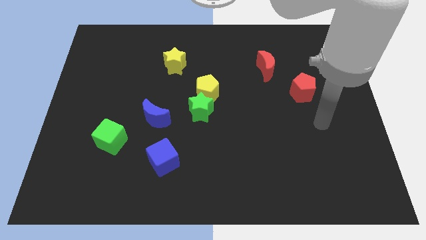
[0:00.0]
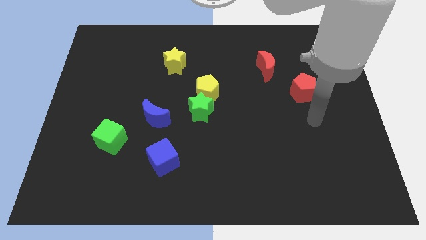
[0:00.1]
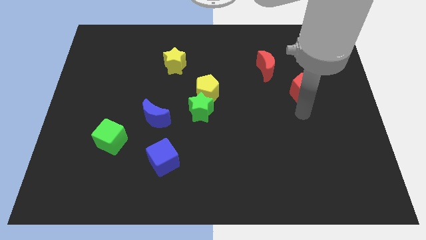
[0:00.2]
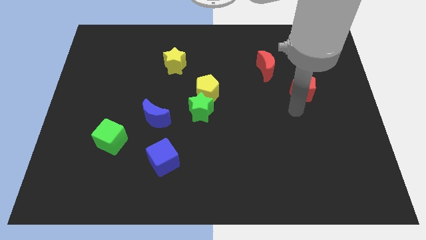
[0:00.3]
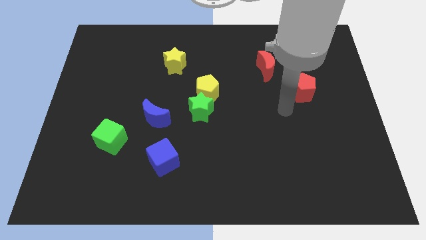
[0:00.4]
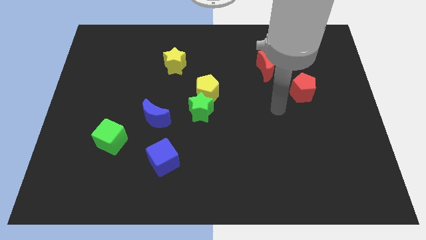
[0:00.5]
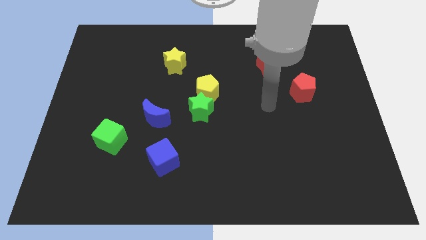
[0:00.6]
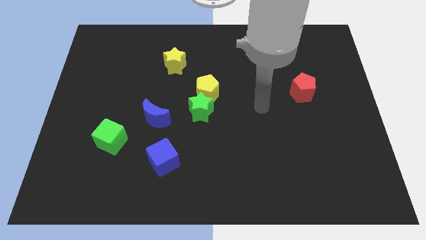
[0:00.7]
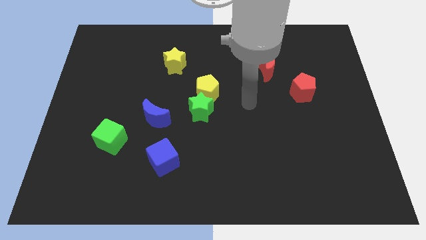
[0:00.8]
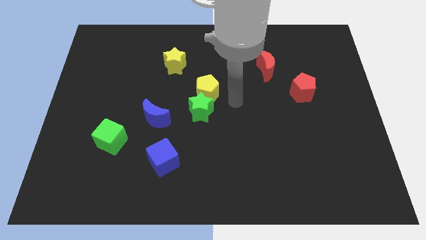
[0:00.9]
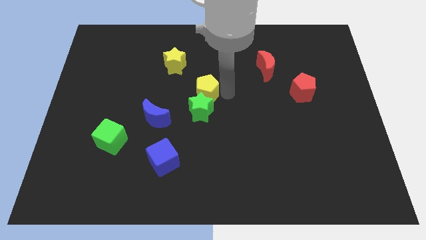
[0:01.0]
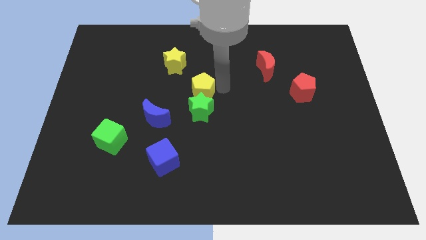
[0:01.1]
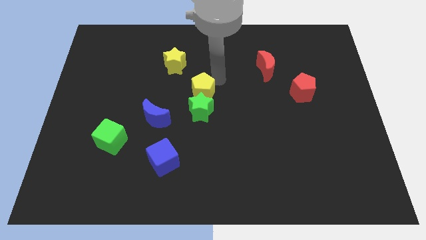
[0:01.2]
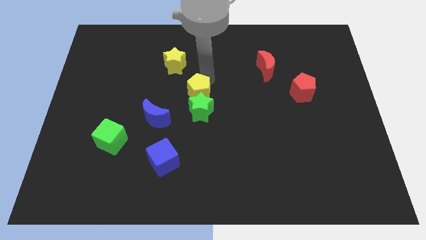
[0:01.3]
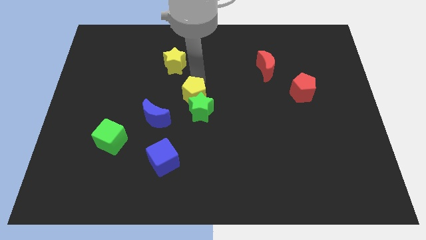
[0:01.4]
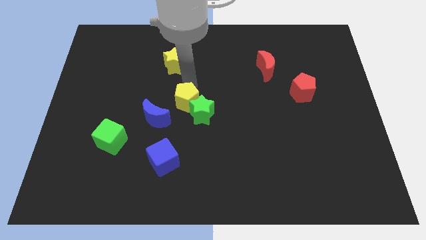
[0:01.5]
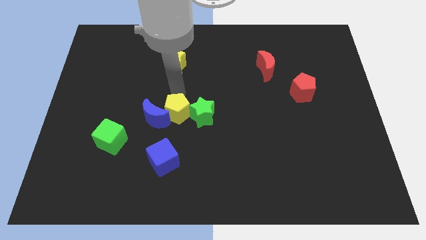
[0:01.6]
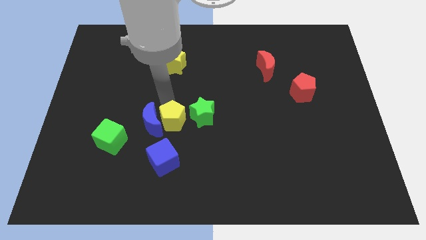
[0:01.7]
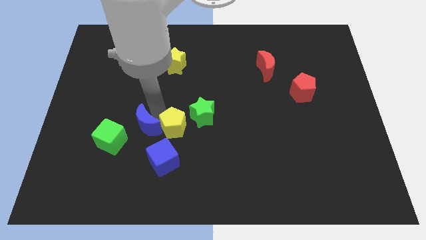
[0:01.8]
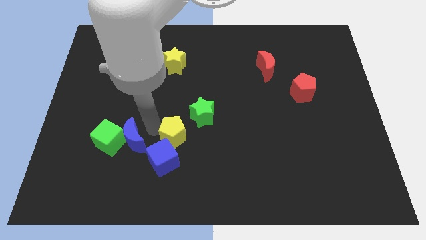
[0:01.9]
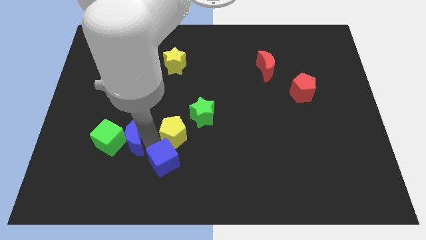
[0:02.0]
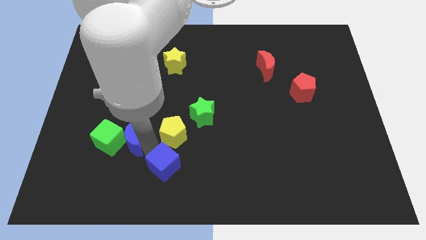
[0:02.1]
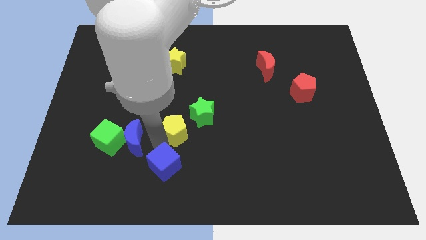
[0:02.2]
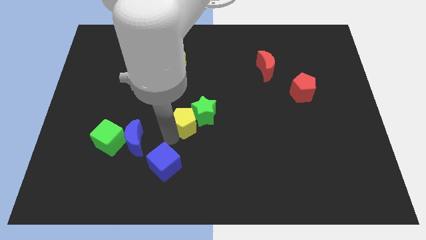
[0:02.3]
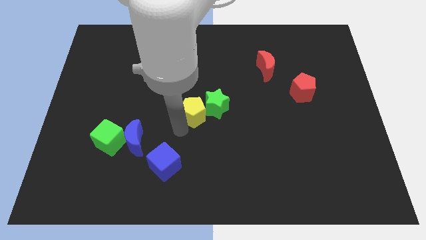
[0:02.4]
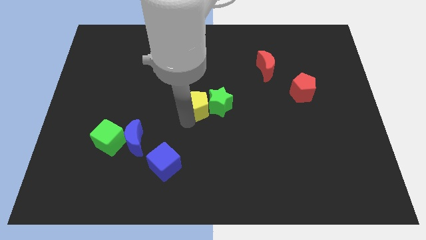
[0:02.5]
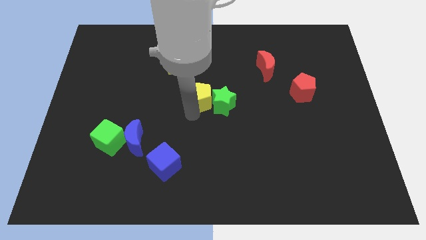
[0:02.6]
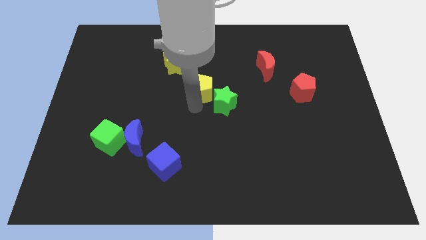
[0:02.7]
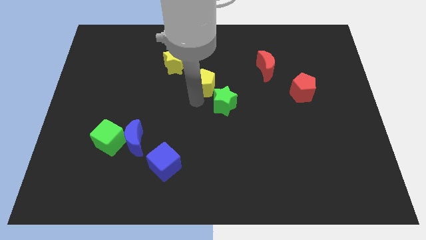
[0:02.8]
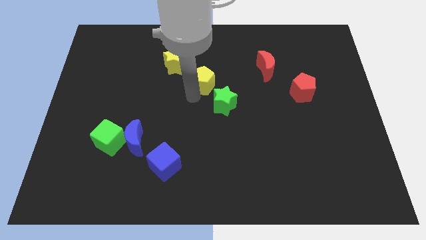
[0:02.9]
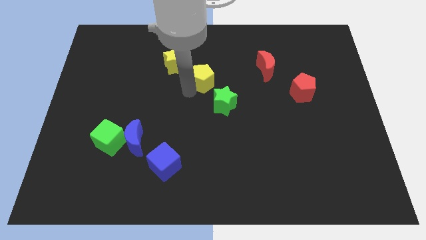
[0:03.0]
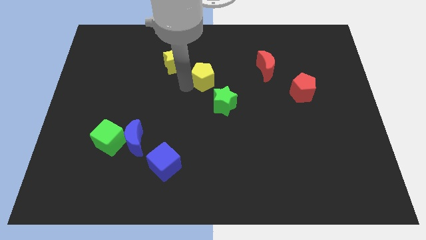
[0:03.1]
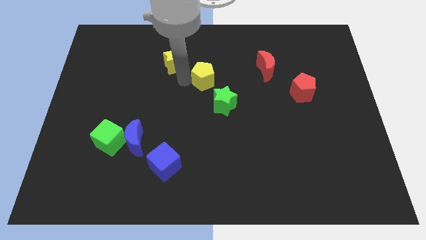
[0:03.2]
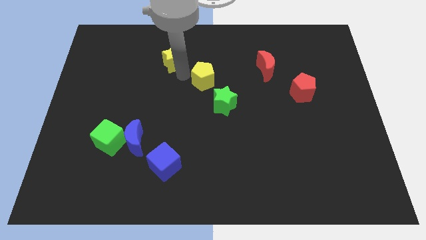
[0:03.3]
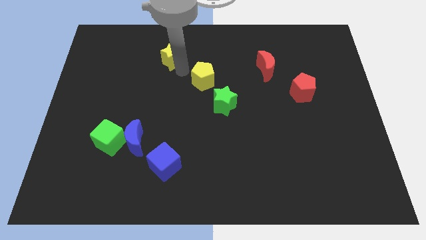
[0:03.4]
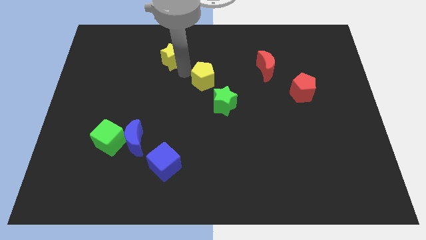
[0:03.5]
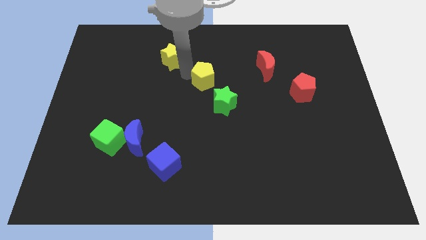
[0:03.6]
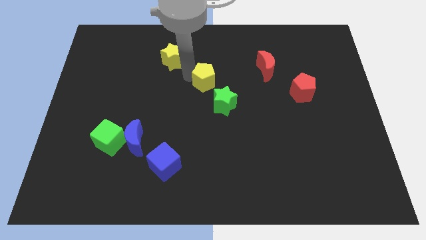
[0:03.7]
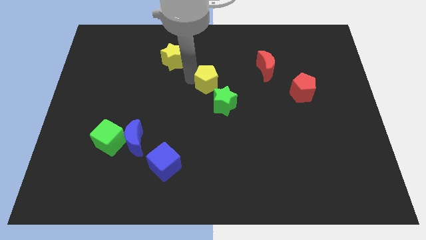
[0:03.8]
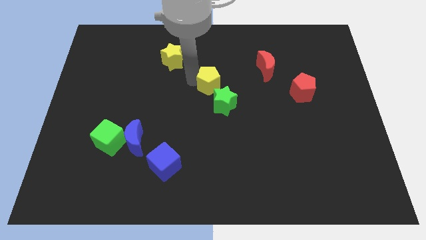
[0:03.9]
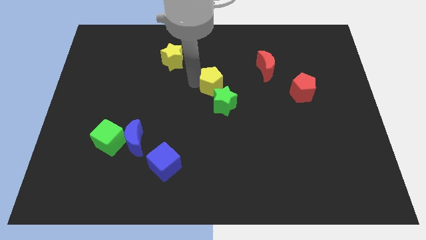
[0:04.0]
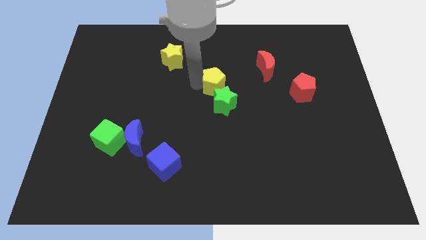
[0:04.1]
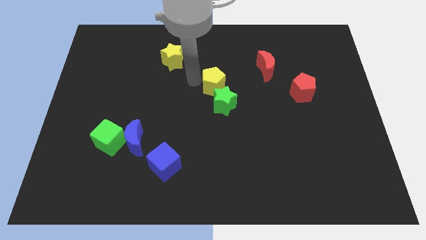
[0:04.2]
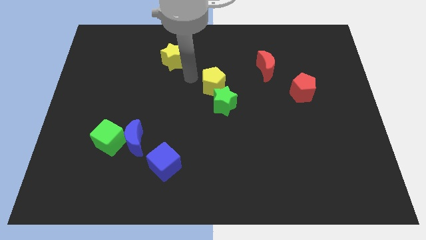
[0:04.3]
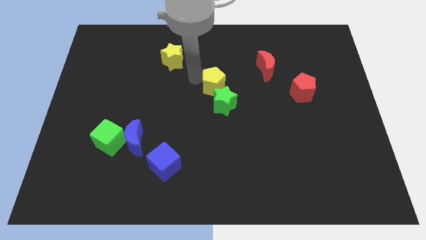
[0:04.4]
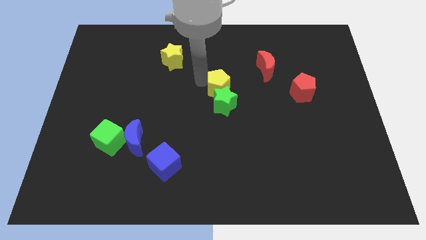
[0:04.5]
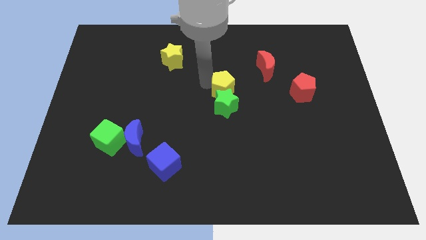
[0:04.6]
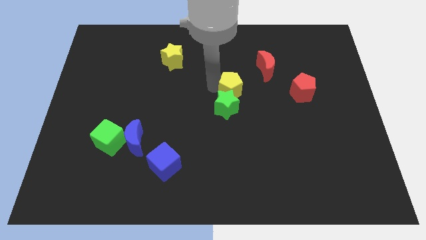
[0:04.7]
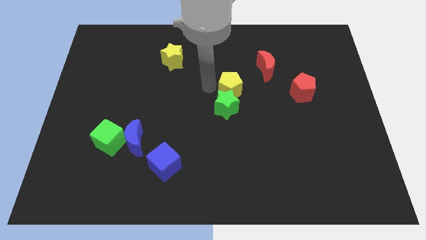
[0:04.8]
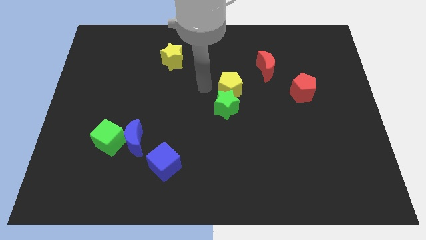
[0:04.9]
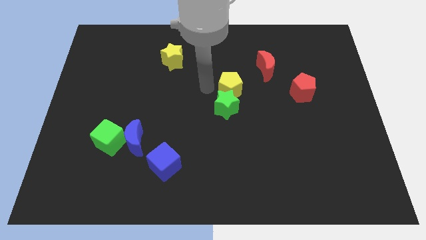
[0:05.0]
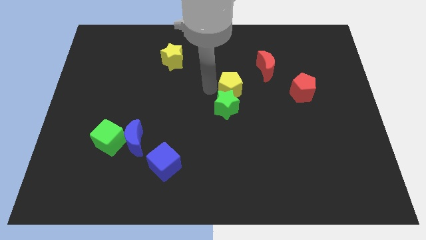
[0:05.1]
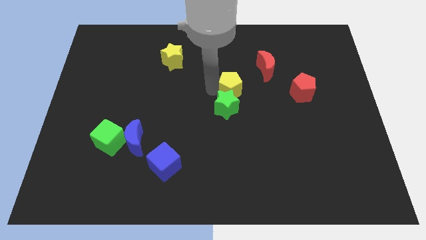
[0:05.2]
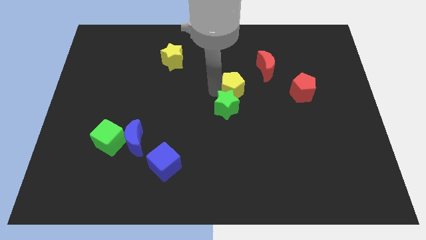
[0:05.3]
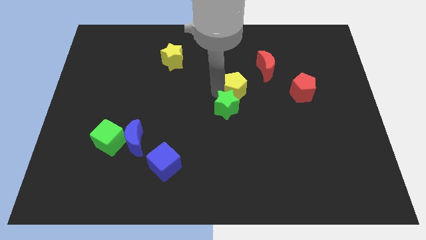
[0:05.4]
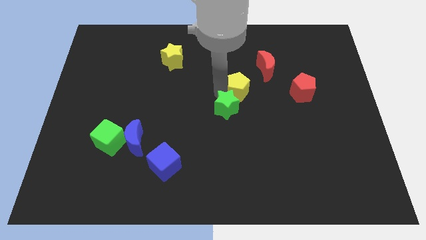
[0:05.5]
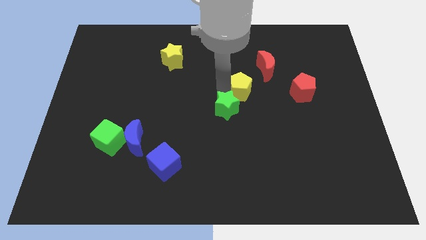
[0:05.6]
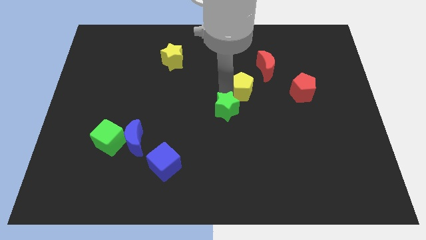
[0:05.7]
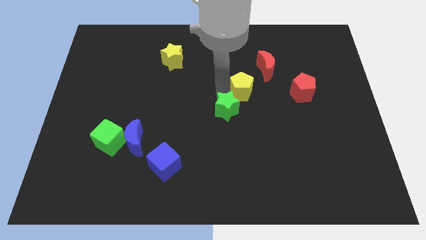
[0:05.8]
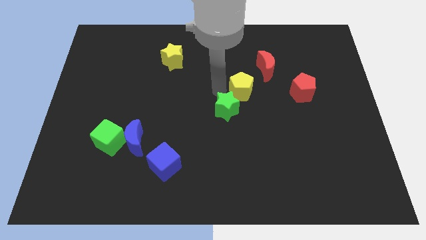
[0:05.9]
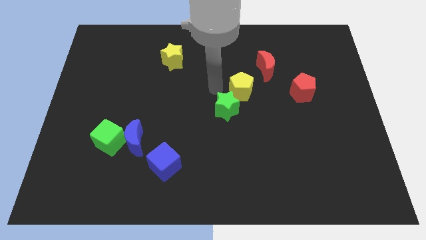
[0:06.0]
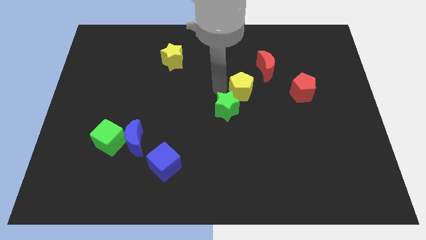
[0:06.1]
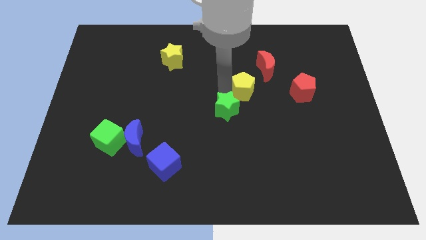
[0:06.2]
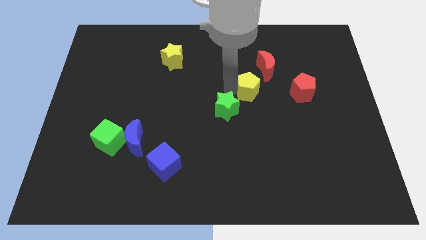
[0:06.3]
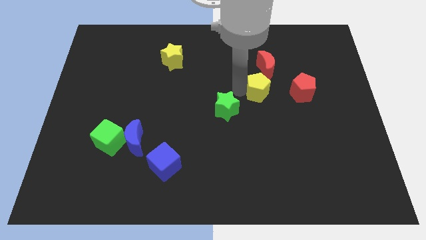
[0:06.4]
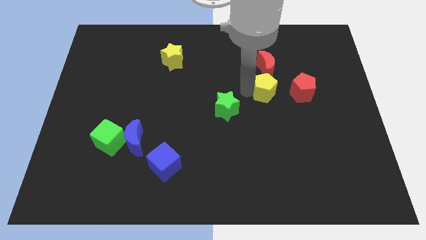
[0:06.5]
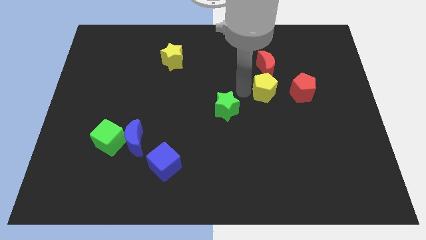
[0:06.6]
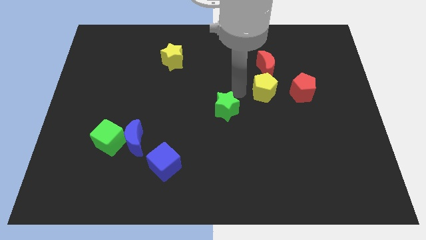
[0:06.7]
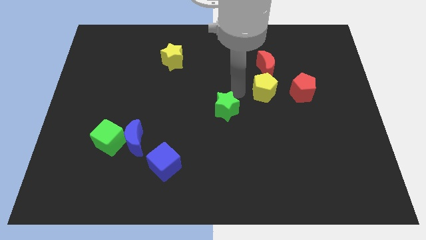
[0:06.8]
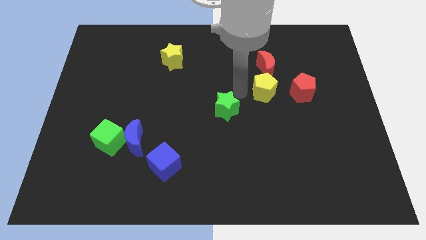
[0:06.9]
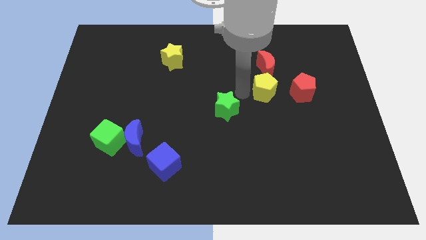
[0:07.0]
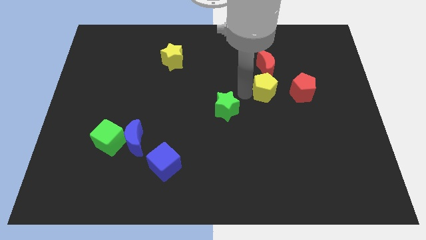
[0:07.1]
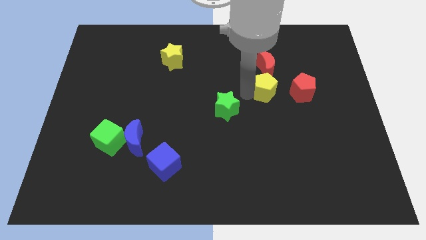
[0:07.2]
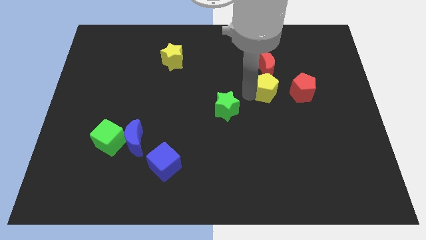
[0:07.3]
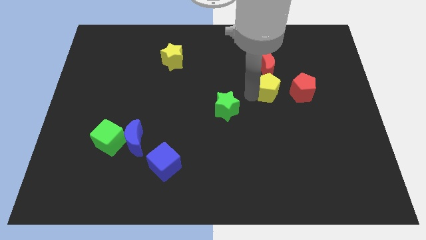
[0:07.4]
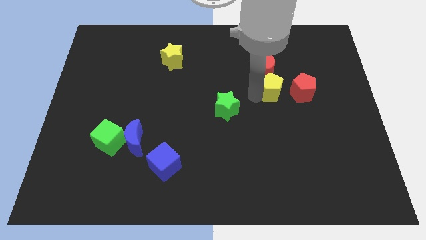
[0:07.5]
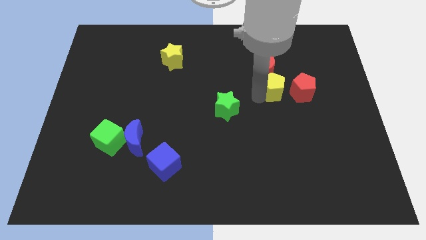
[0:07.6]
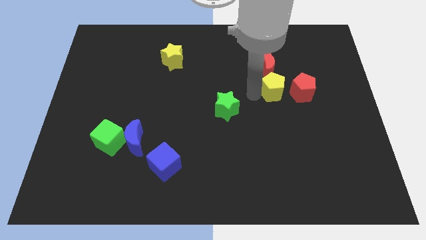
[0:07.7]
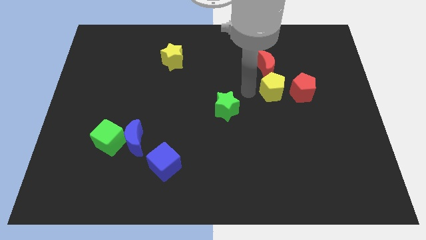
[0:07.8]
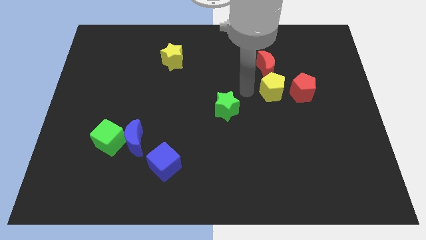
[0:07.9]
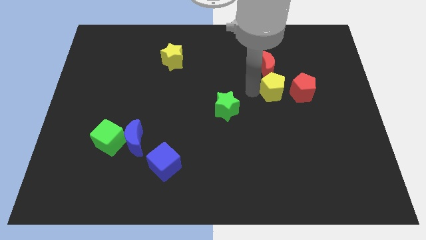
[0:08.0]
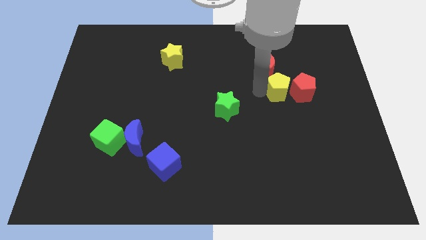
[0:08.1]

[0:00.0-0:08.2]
push the yellow pentagon next to the red pentagon
